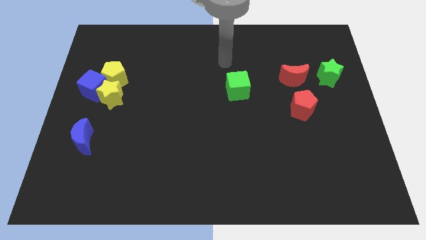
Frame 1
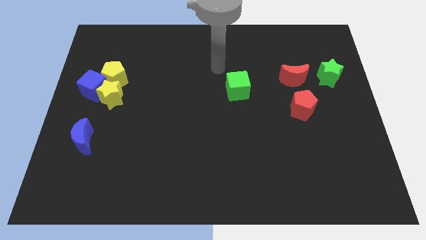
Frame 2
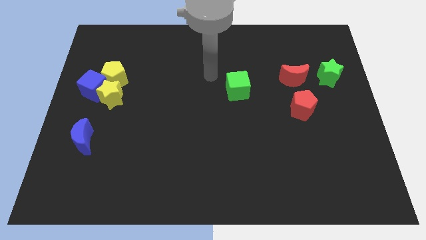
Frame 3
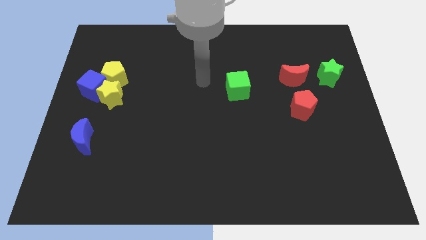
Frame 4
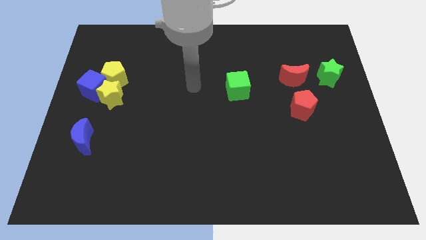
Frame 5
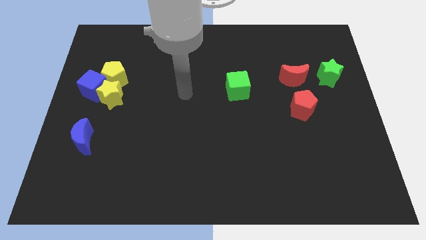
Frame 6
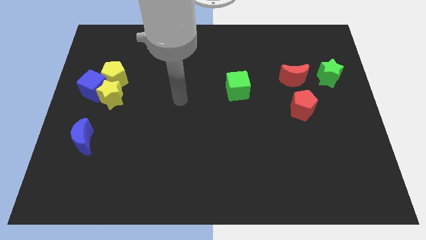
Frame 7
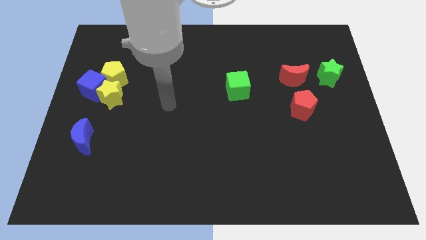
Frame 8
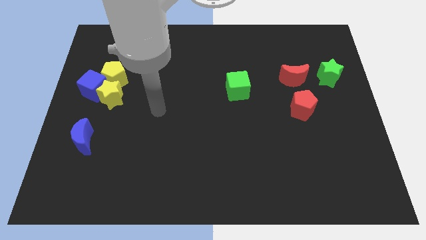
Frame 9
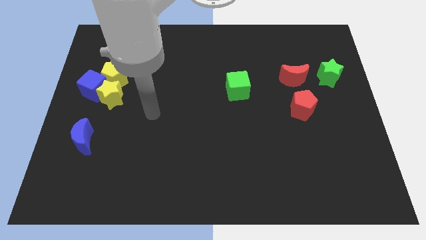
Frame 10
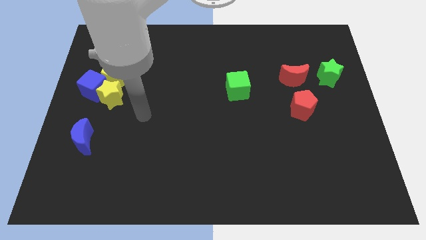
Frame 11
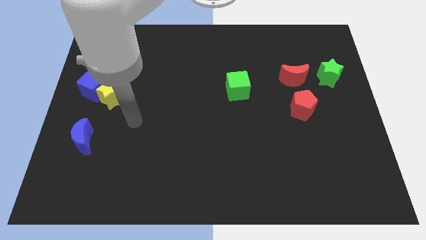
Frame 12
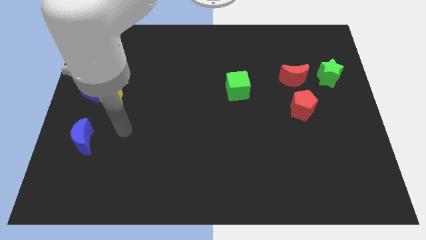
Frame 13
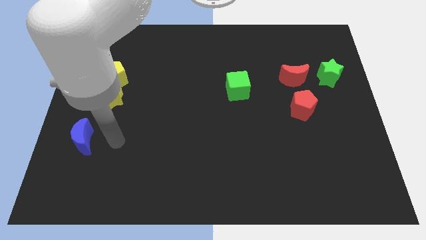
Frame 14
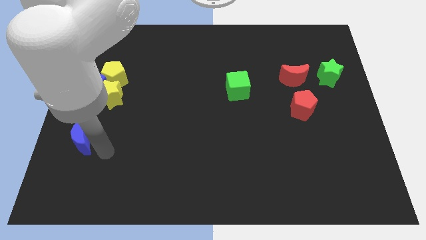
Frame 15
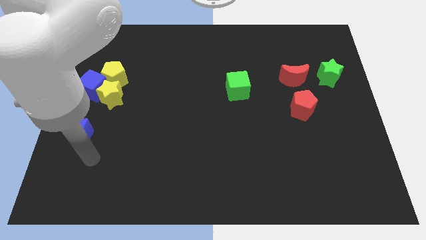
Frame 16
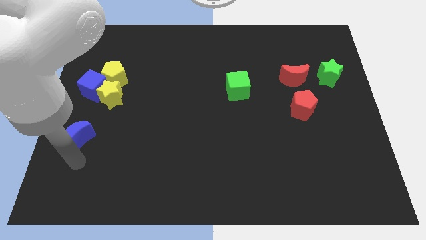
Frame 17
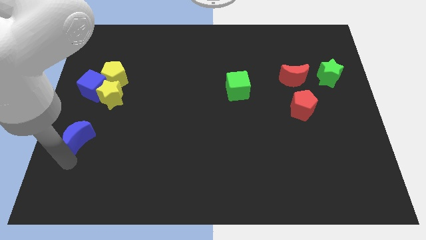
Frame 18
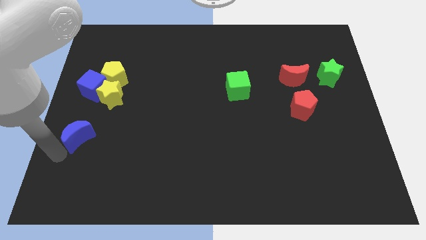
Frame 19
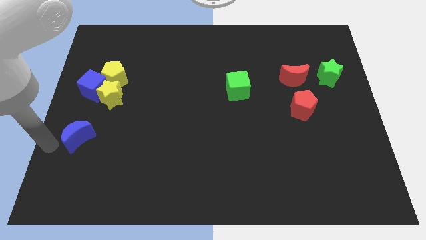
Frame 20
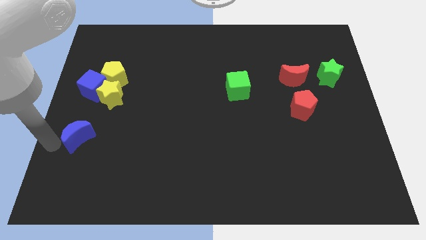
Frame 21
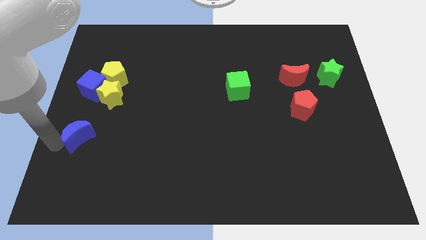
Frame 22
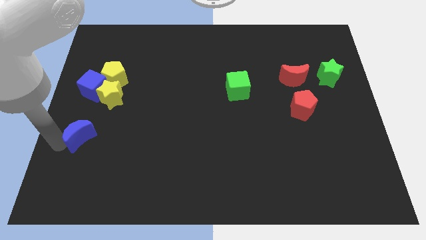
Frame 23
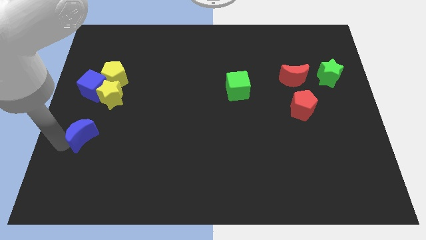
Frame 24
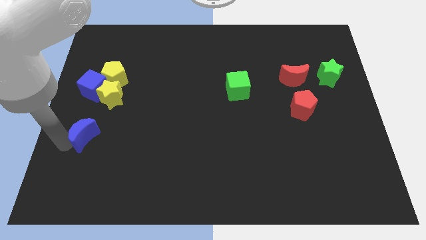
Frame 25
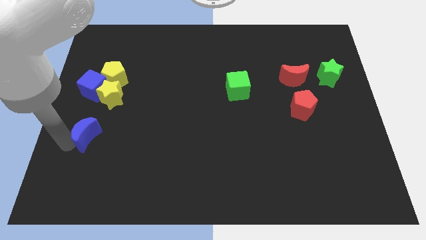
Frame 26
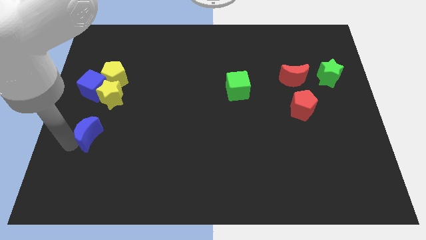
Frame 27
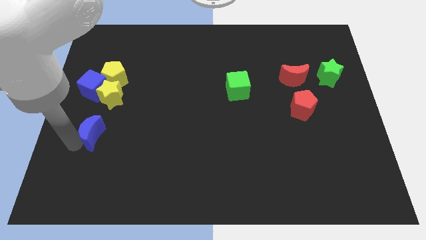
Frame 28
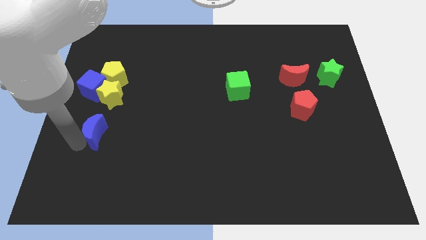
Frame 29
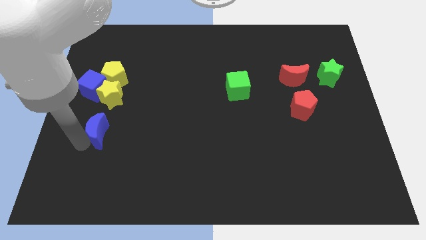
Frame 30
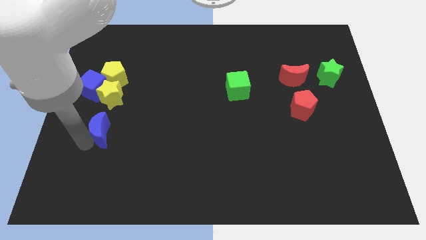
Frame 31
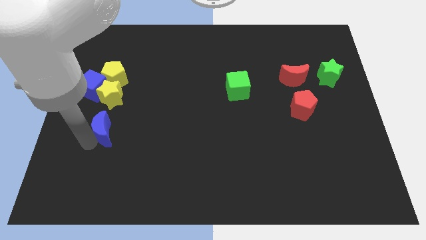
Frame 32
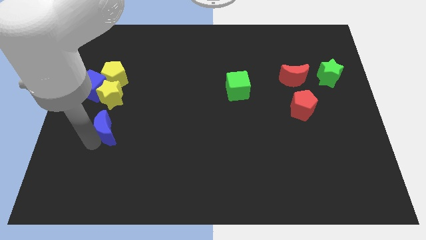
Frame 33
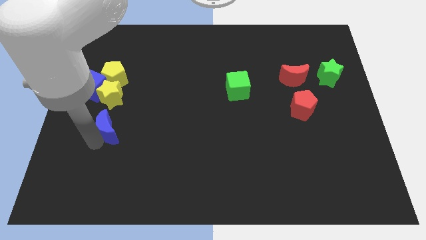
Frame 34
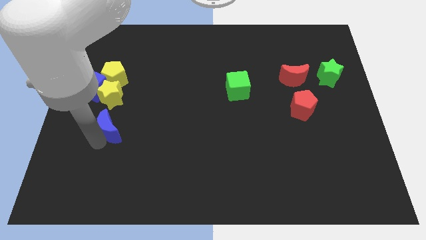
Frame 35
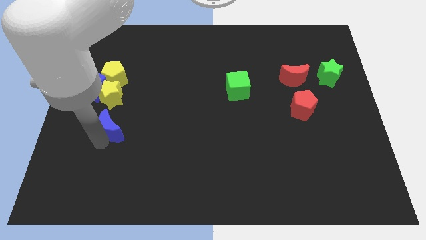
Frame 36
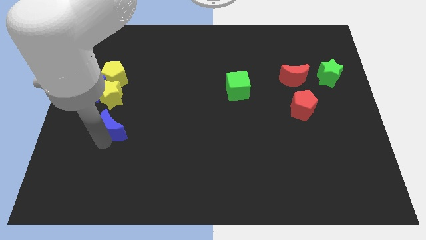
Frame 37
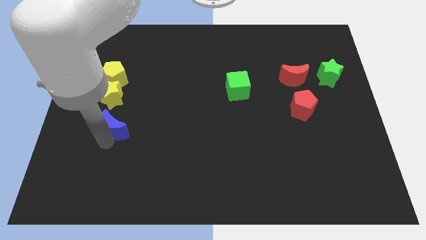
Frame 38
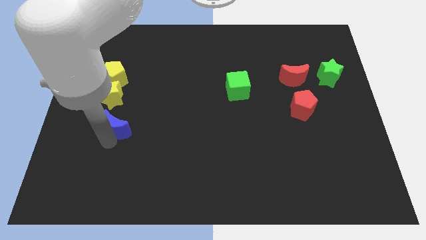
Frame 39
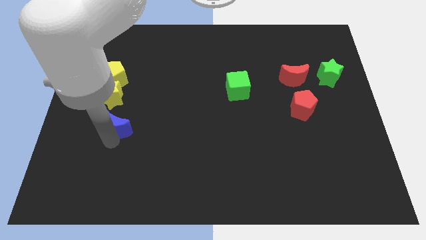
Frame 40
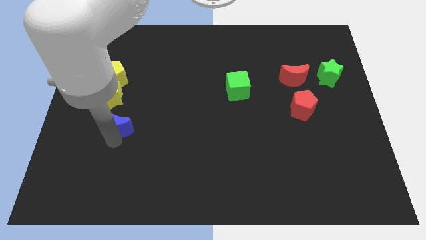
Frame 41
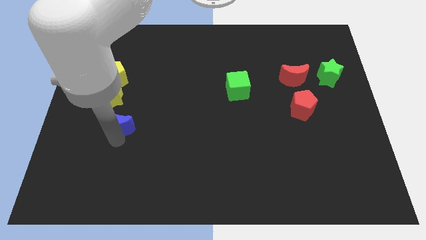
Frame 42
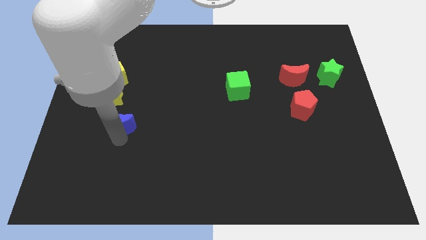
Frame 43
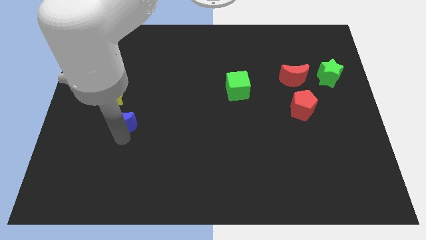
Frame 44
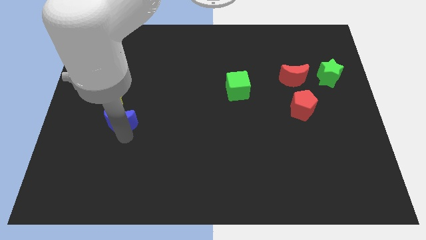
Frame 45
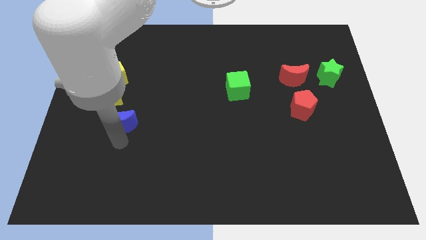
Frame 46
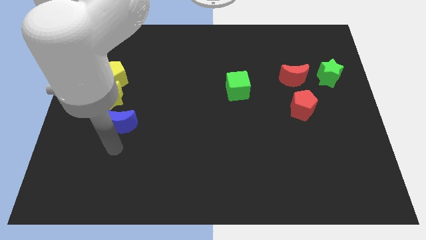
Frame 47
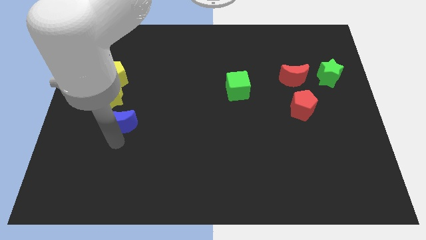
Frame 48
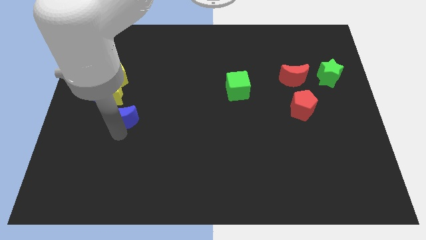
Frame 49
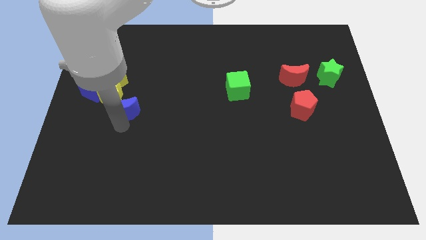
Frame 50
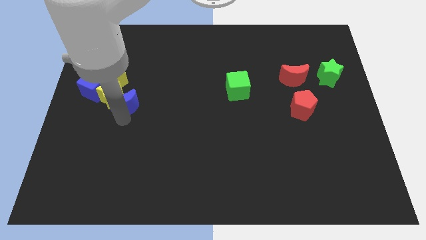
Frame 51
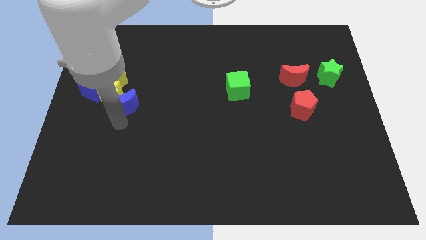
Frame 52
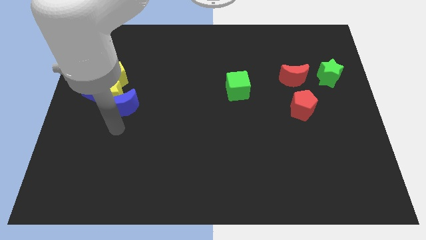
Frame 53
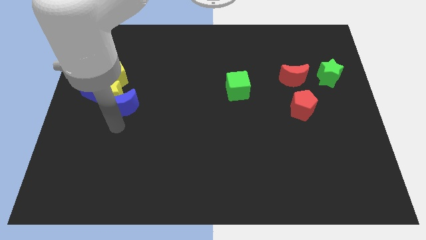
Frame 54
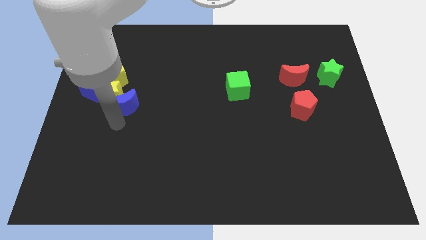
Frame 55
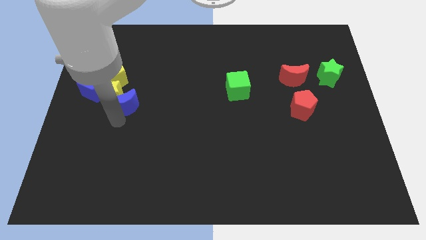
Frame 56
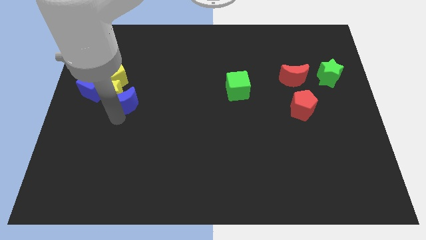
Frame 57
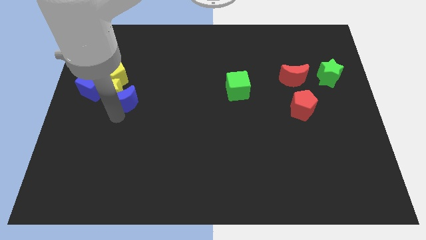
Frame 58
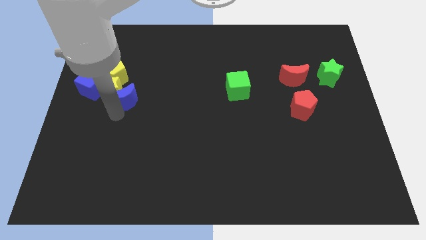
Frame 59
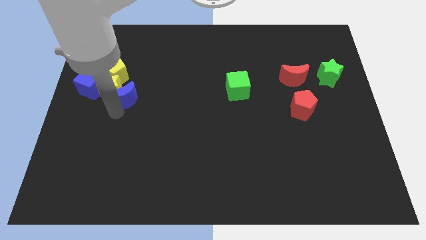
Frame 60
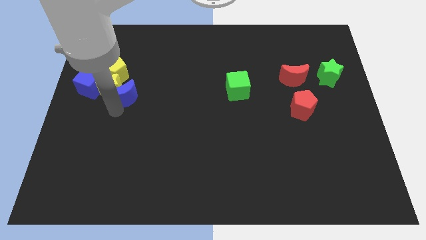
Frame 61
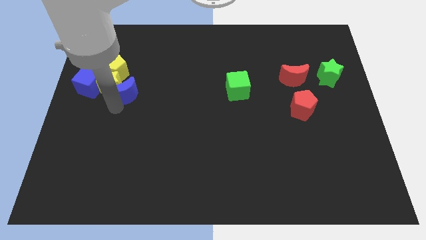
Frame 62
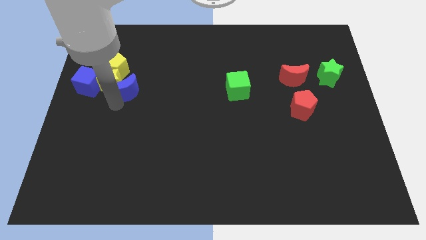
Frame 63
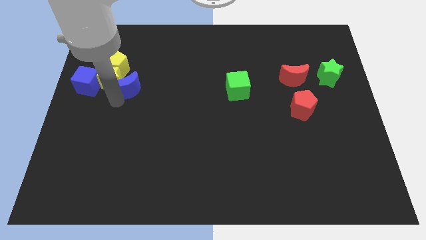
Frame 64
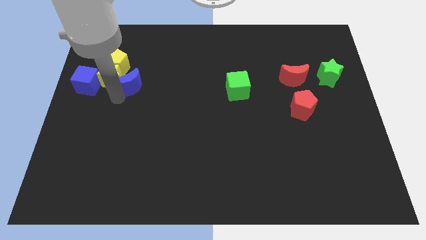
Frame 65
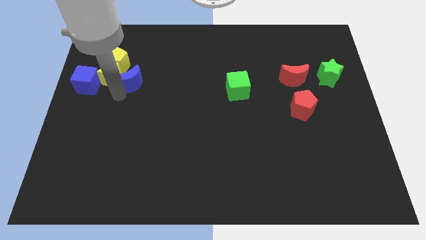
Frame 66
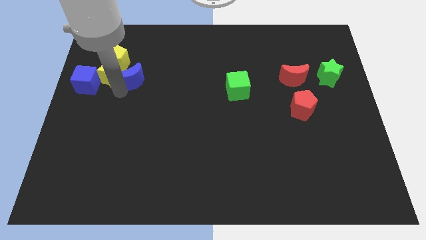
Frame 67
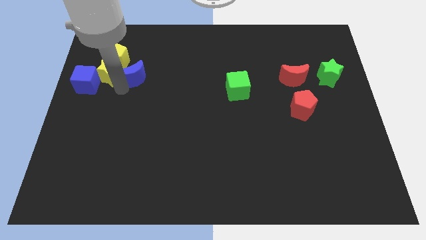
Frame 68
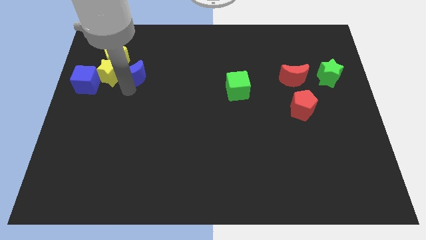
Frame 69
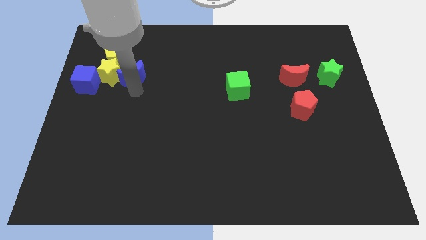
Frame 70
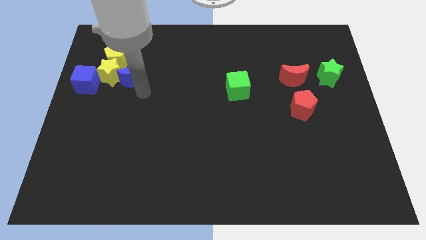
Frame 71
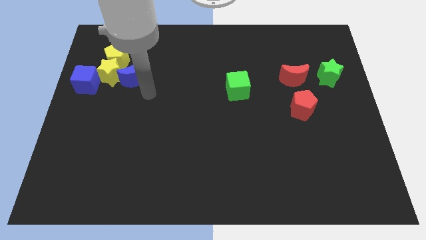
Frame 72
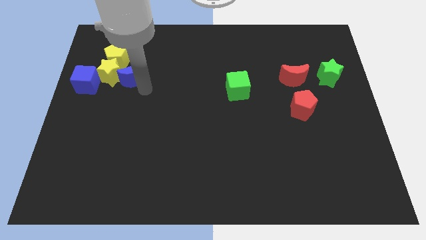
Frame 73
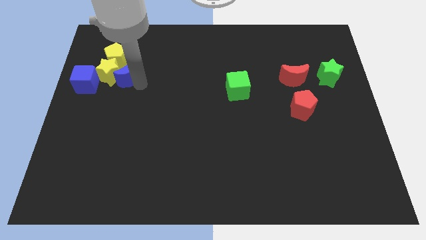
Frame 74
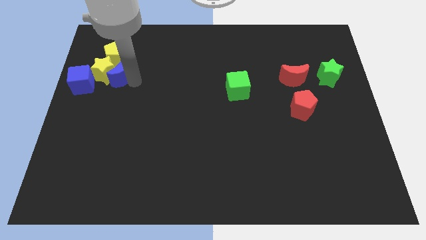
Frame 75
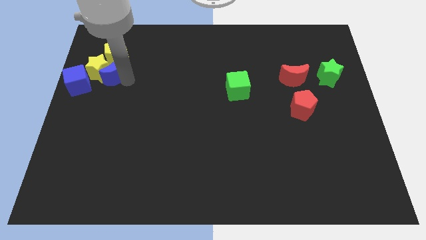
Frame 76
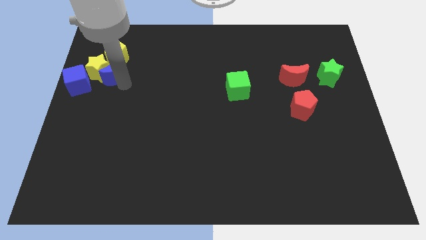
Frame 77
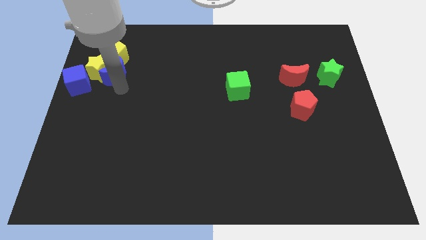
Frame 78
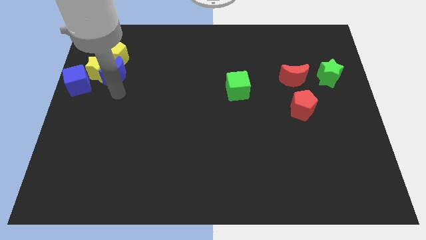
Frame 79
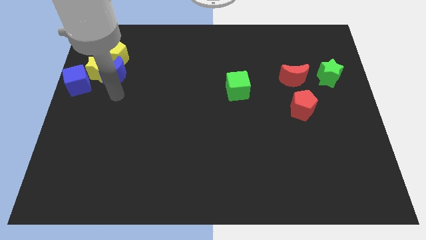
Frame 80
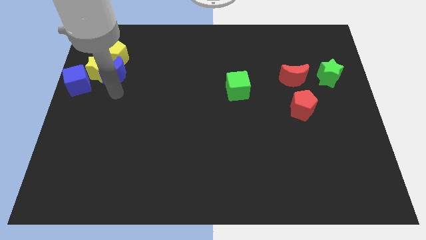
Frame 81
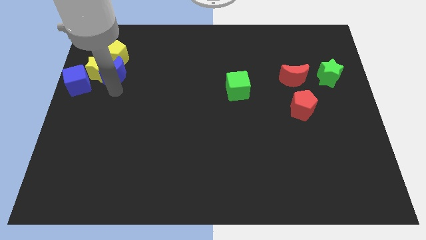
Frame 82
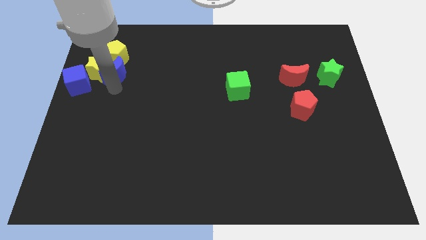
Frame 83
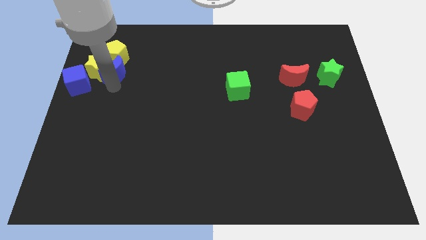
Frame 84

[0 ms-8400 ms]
put the blue moon next to the yellow pentagon
